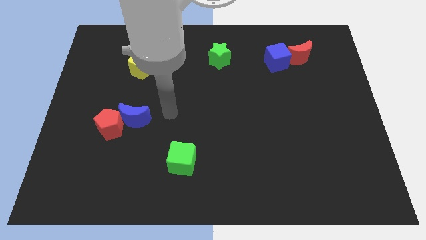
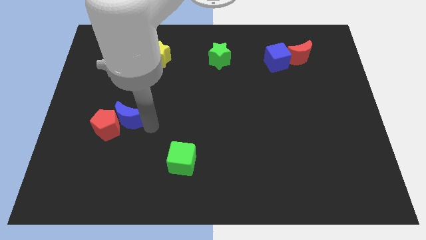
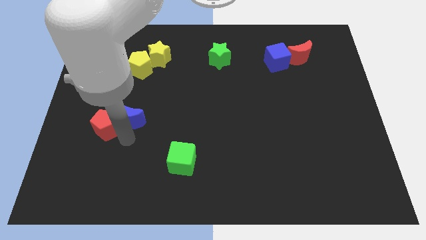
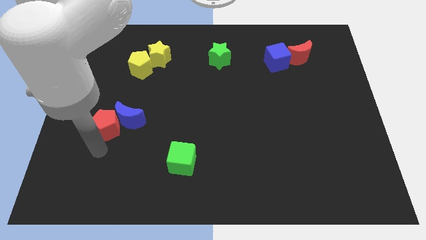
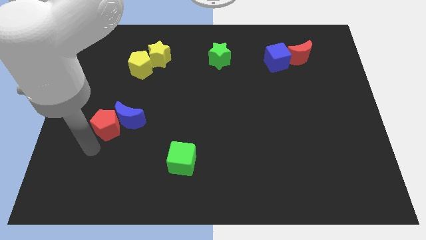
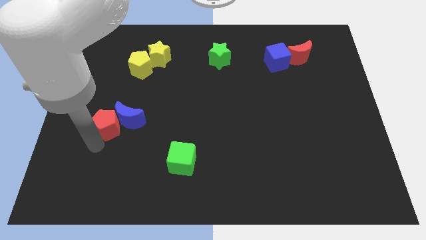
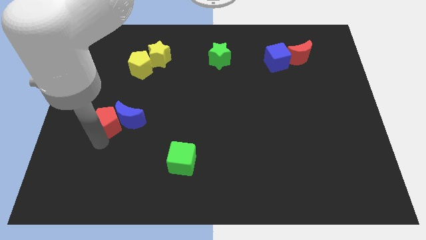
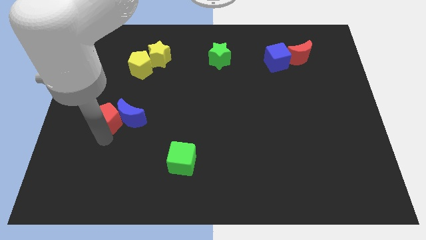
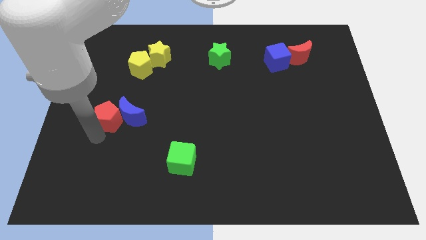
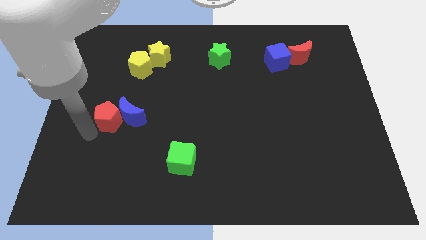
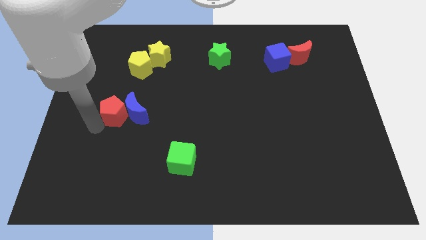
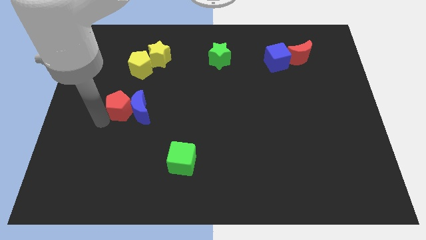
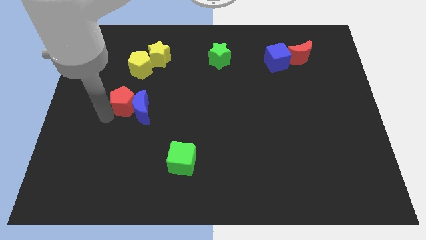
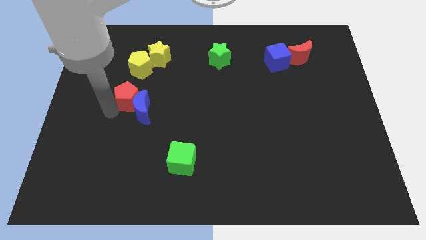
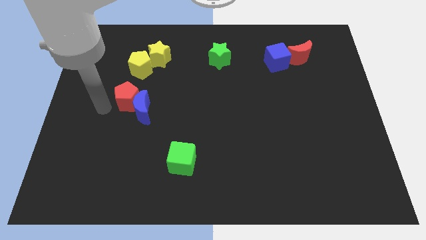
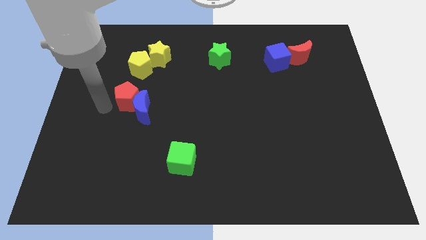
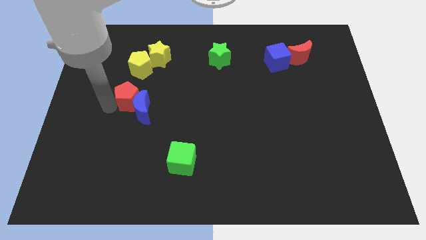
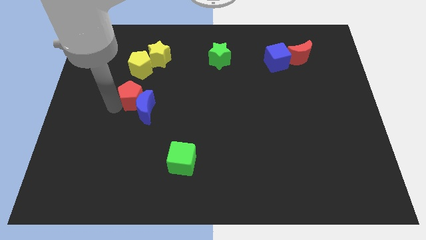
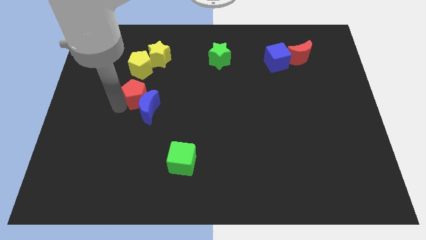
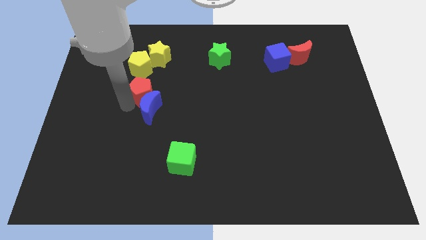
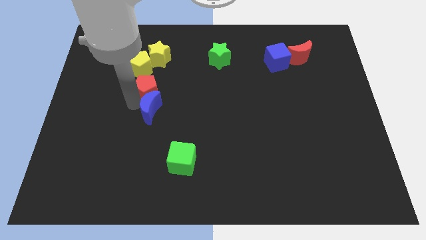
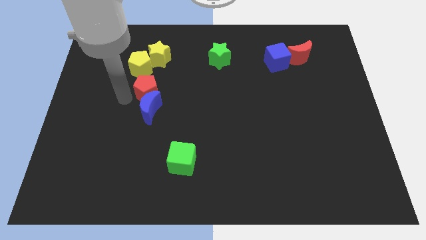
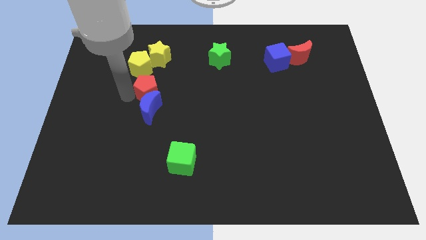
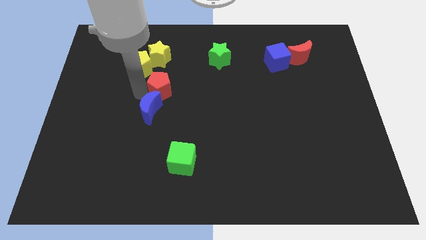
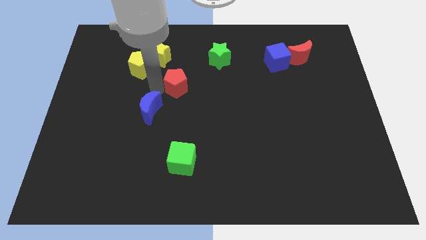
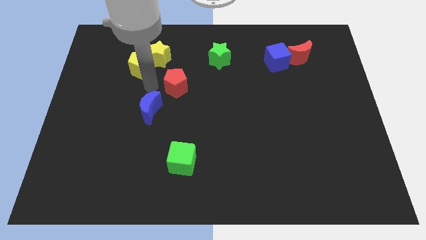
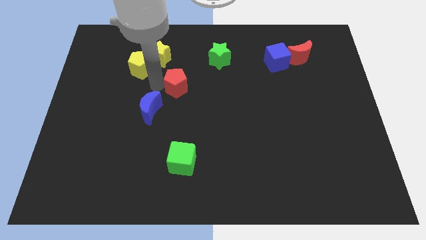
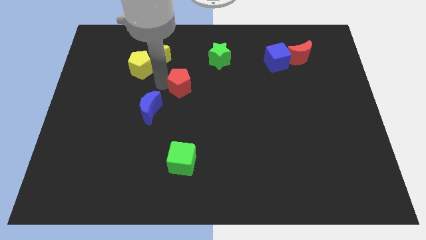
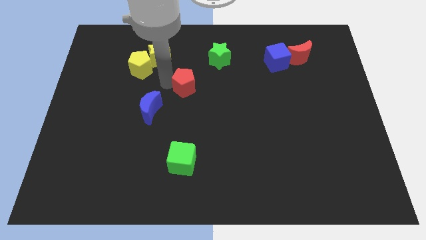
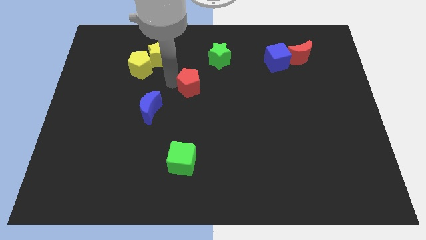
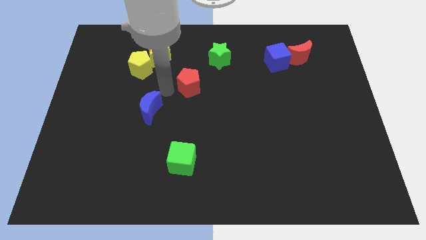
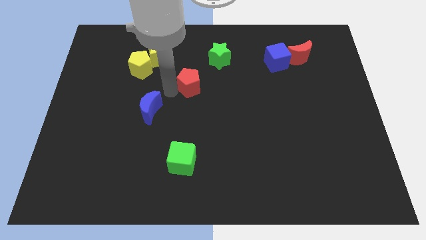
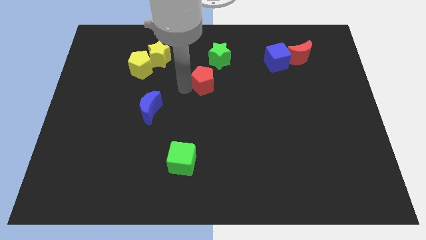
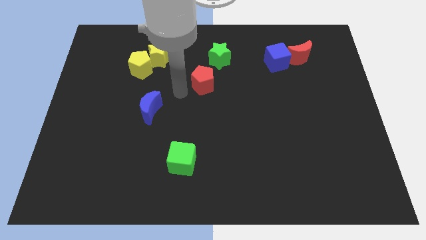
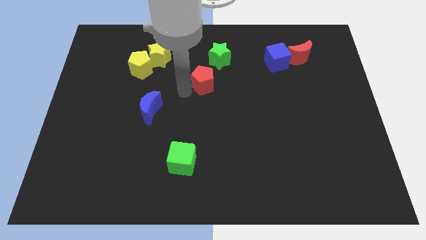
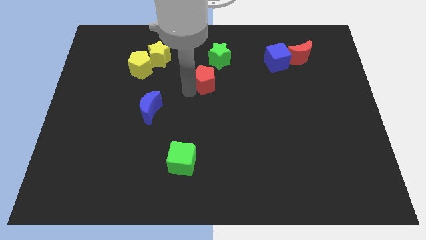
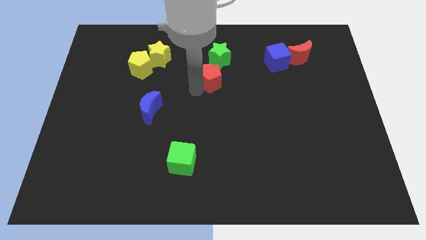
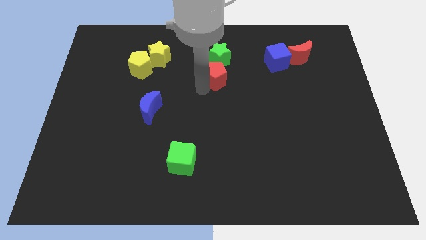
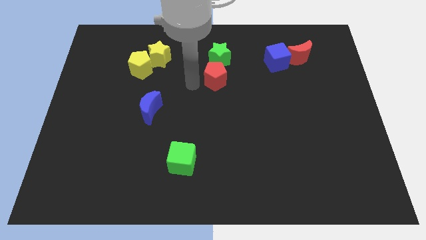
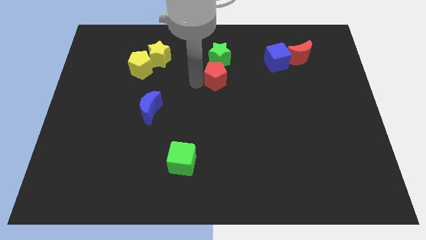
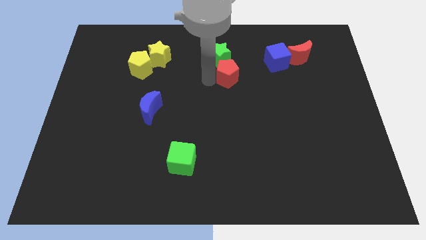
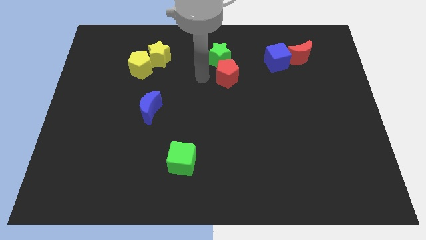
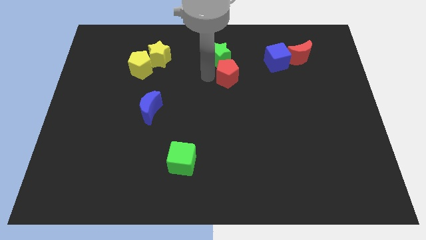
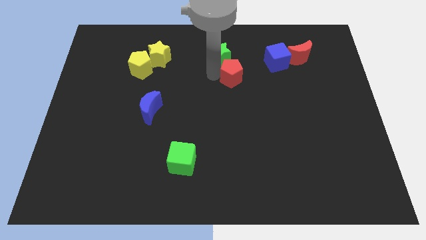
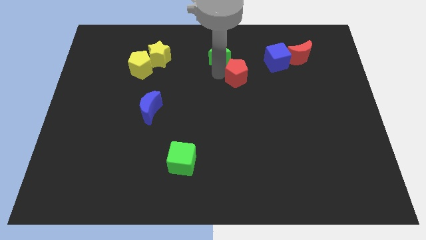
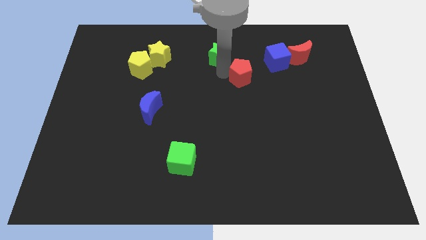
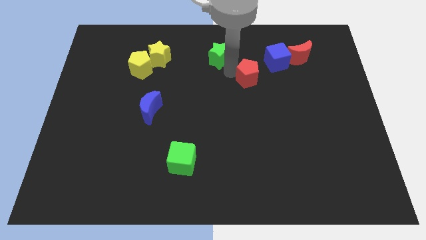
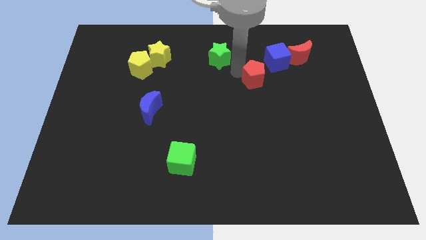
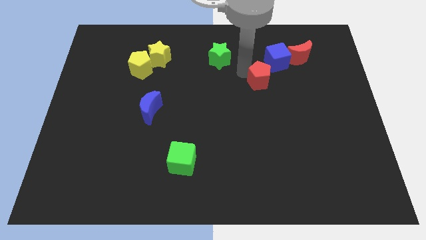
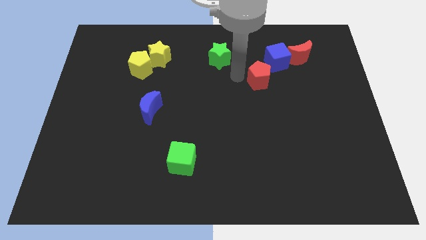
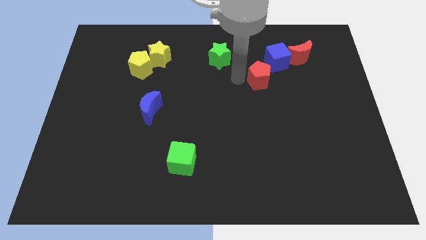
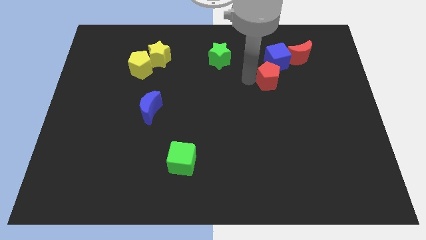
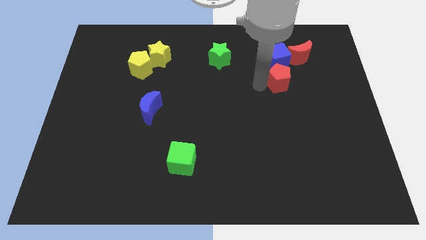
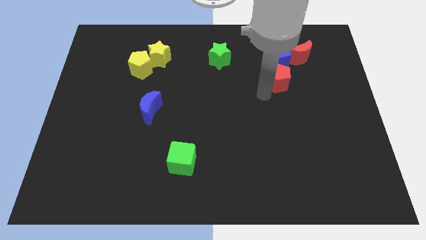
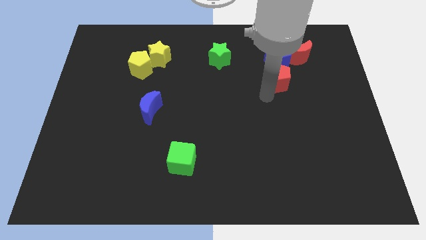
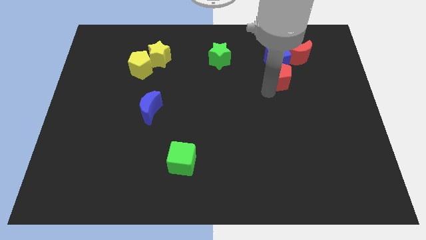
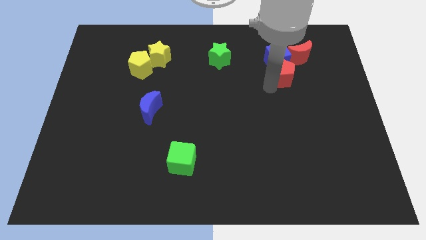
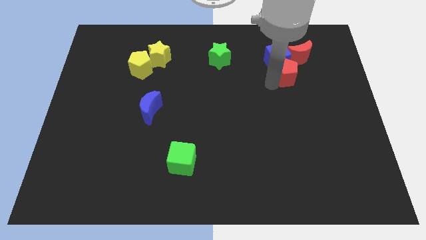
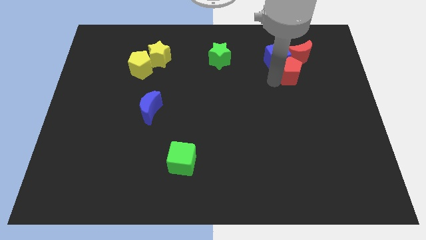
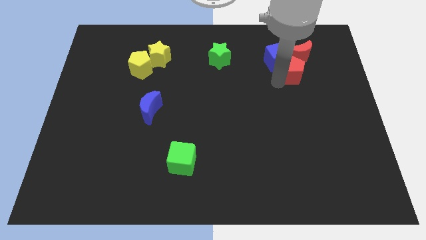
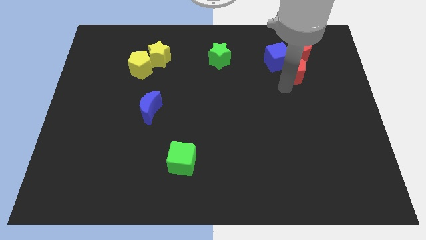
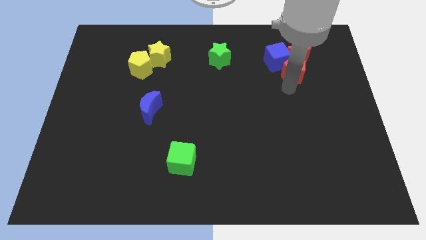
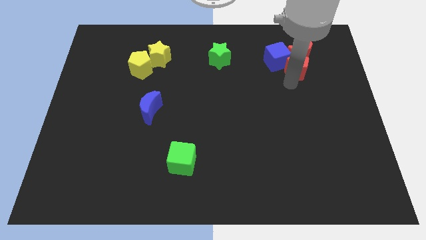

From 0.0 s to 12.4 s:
move the red pentagon close to the red moon
